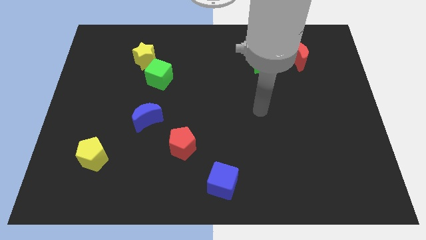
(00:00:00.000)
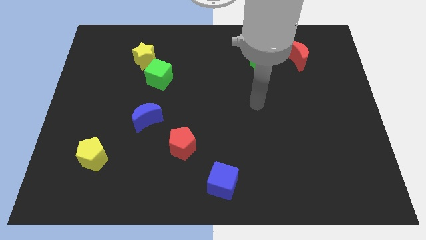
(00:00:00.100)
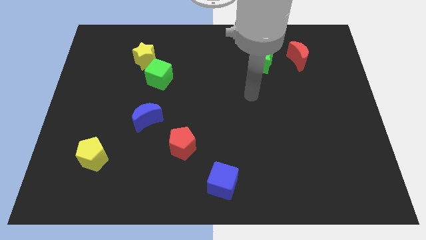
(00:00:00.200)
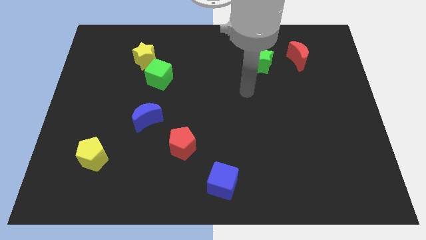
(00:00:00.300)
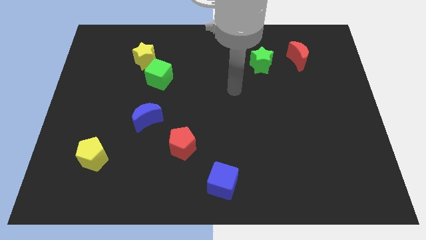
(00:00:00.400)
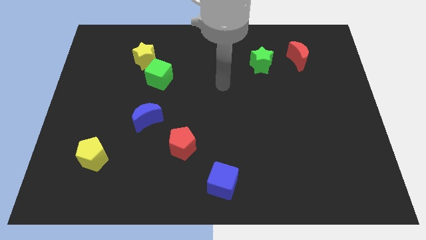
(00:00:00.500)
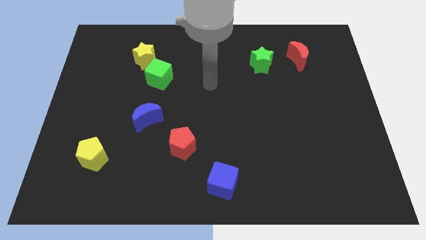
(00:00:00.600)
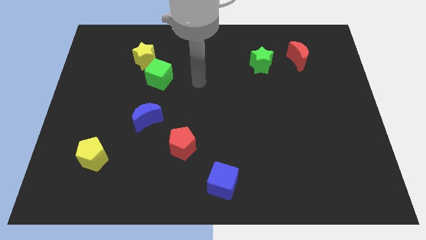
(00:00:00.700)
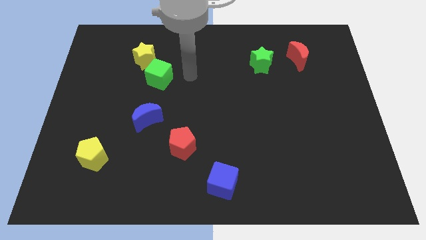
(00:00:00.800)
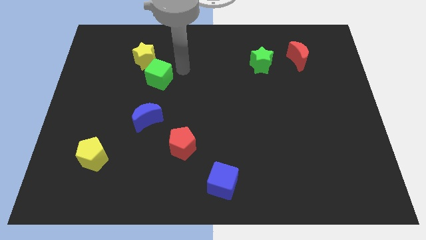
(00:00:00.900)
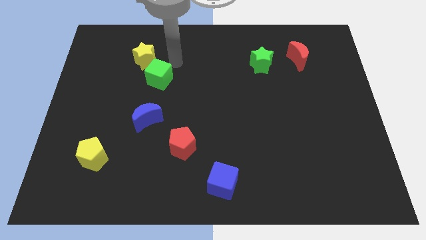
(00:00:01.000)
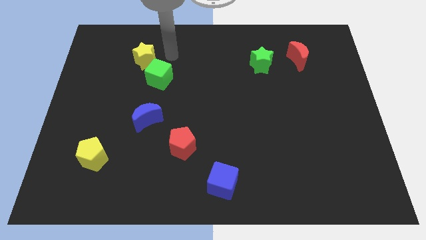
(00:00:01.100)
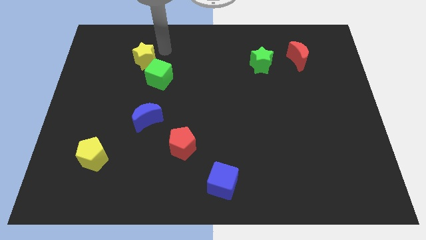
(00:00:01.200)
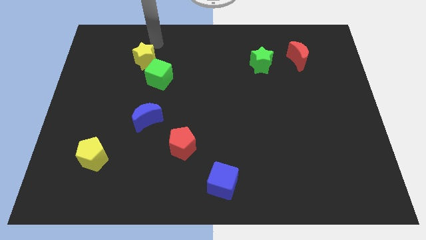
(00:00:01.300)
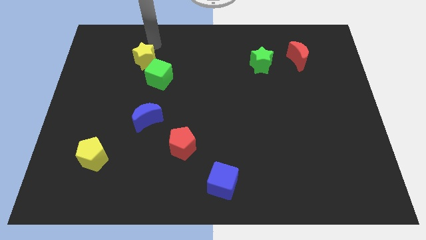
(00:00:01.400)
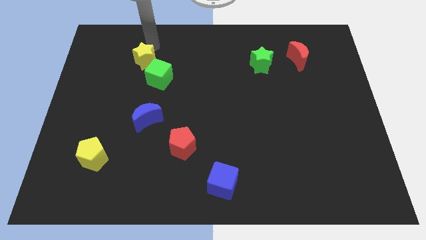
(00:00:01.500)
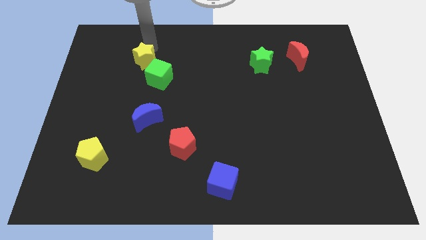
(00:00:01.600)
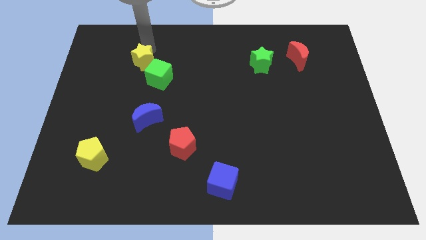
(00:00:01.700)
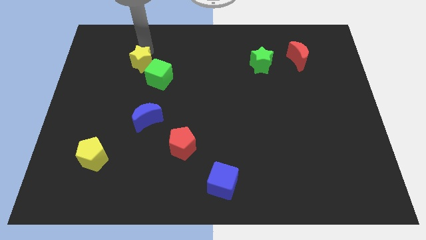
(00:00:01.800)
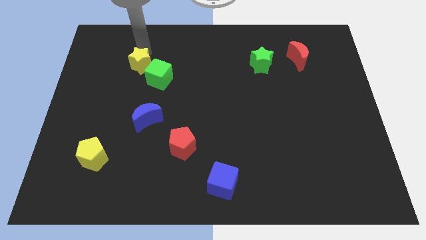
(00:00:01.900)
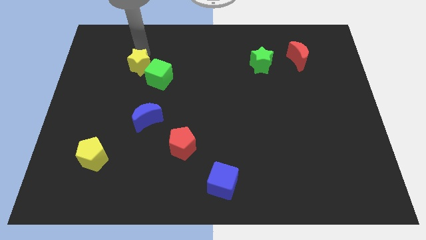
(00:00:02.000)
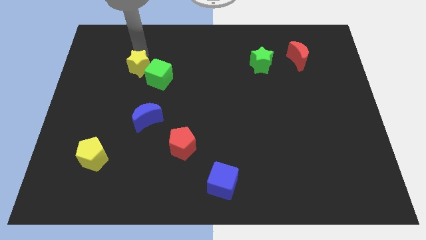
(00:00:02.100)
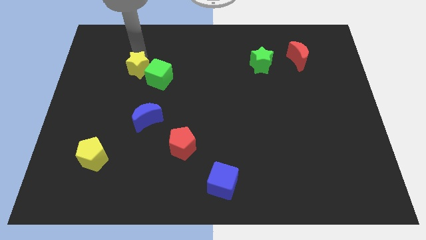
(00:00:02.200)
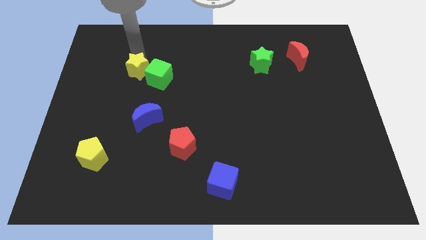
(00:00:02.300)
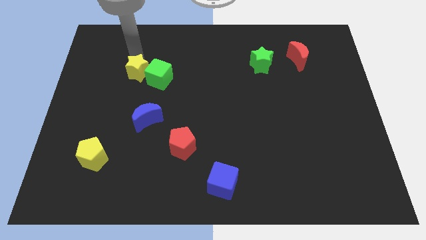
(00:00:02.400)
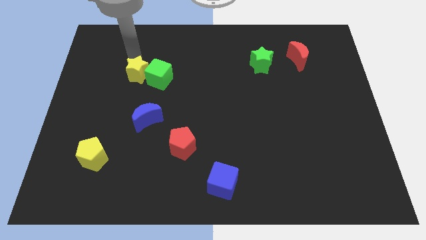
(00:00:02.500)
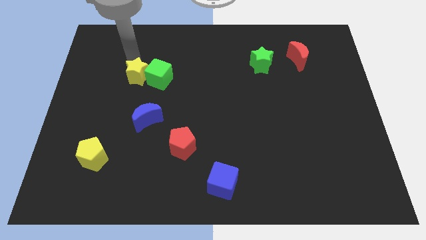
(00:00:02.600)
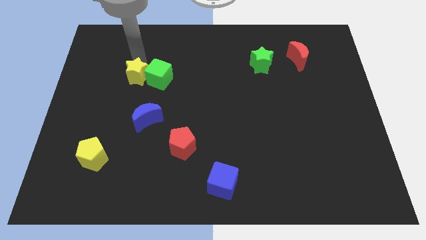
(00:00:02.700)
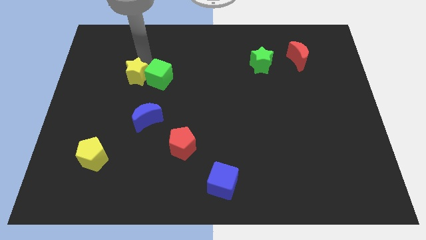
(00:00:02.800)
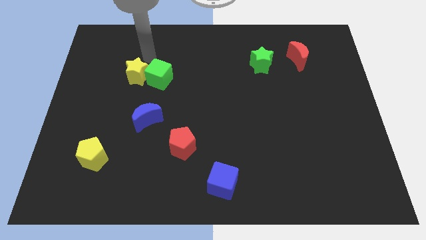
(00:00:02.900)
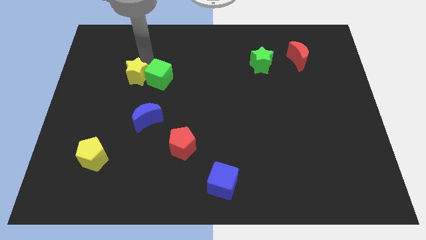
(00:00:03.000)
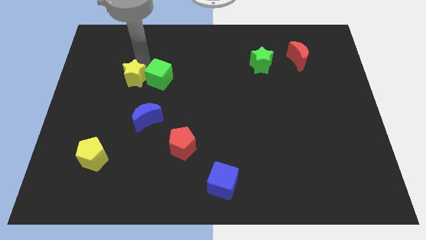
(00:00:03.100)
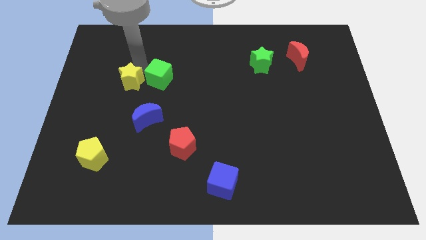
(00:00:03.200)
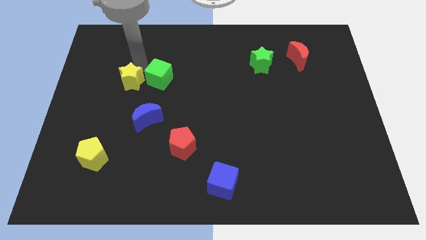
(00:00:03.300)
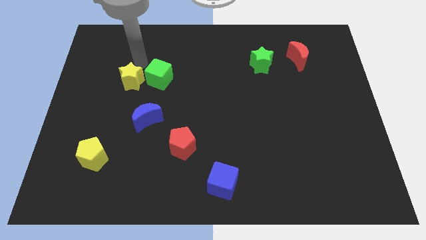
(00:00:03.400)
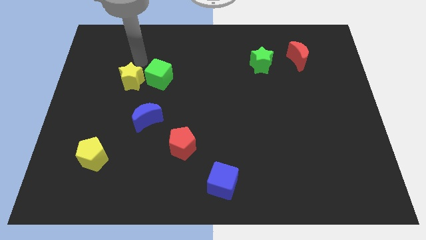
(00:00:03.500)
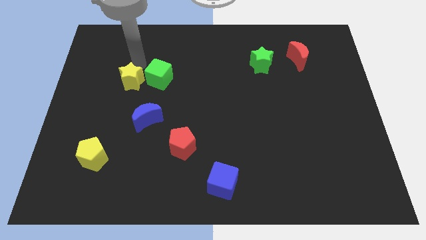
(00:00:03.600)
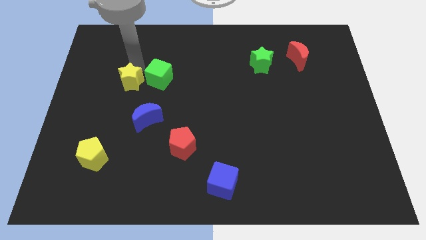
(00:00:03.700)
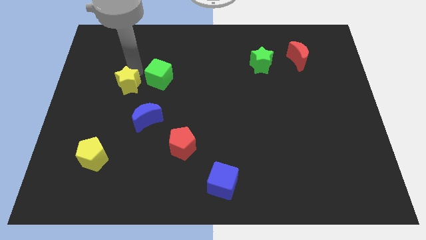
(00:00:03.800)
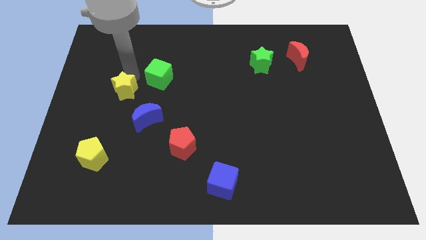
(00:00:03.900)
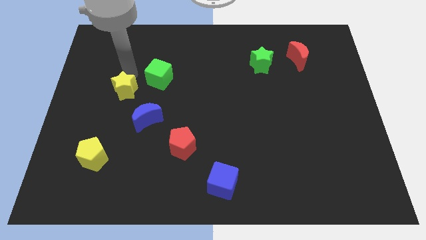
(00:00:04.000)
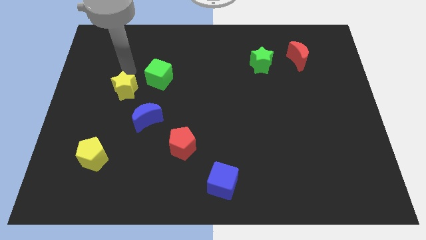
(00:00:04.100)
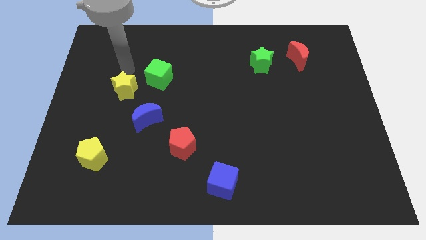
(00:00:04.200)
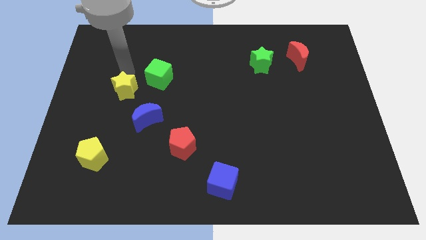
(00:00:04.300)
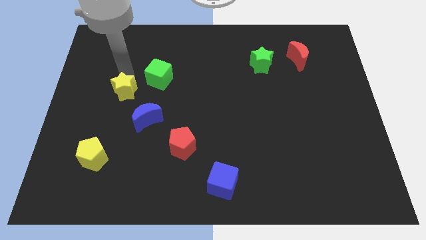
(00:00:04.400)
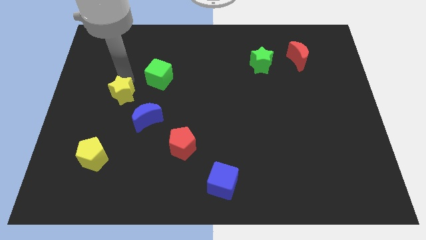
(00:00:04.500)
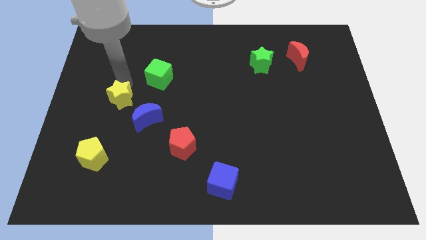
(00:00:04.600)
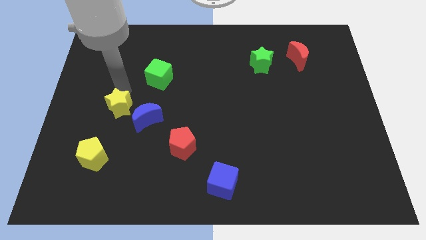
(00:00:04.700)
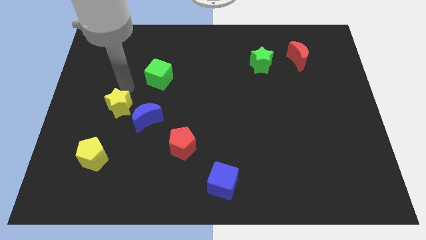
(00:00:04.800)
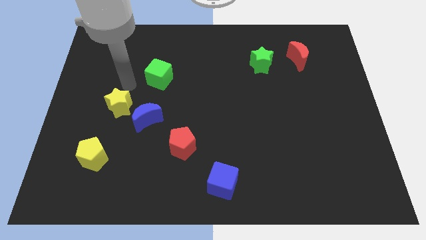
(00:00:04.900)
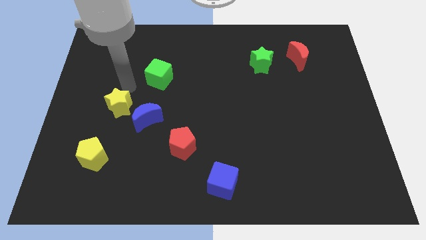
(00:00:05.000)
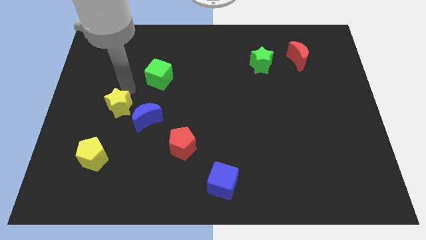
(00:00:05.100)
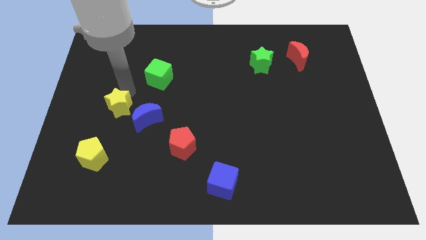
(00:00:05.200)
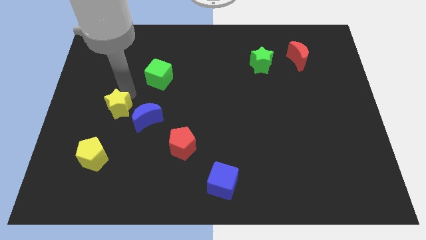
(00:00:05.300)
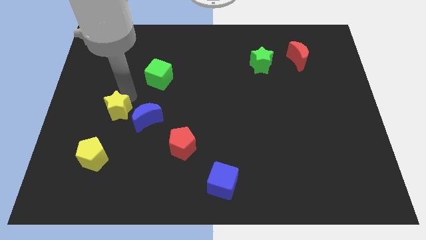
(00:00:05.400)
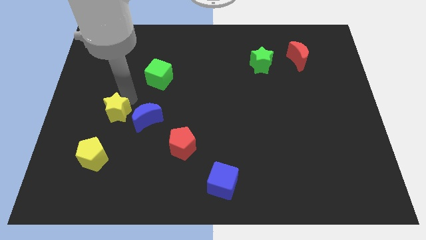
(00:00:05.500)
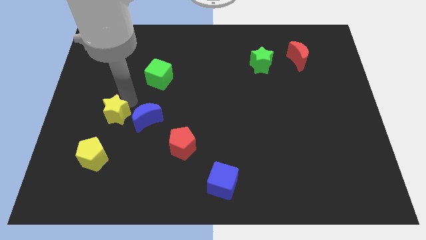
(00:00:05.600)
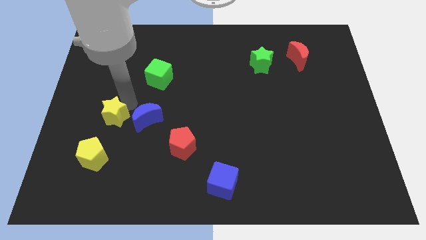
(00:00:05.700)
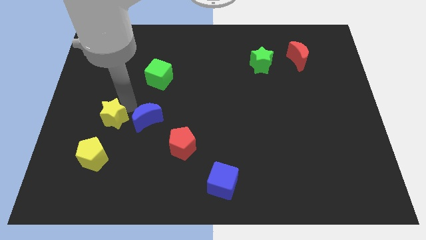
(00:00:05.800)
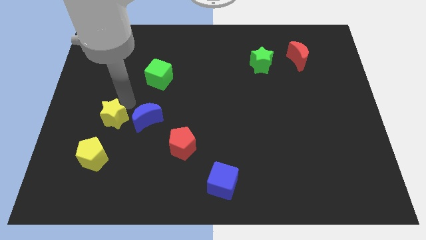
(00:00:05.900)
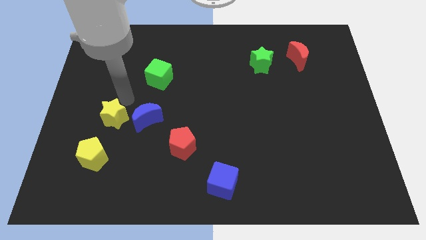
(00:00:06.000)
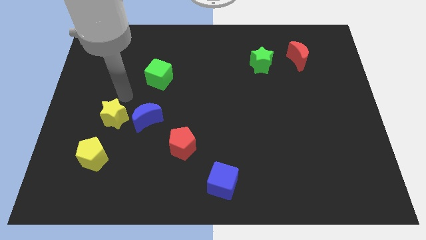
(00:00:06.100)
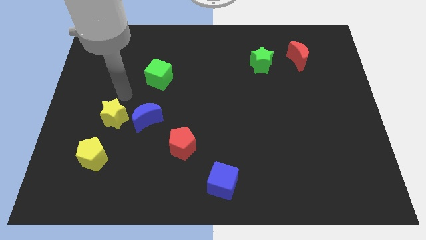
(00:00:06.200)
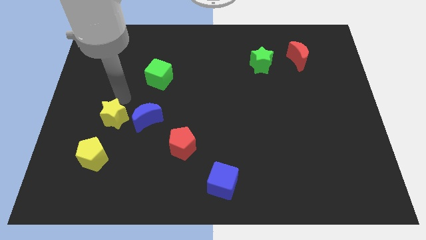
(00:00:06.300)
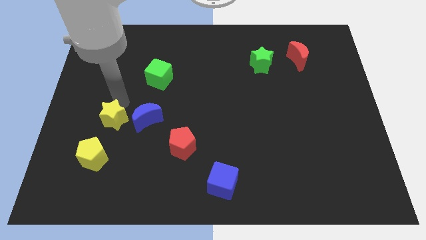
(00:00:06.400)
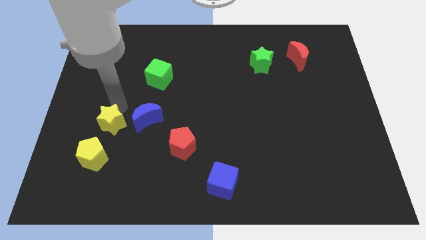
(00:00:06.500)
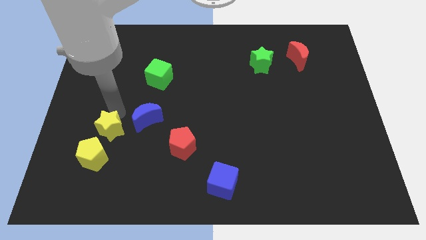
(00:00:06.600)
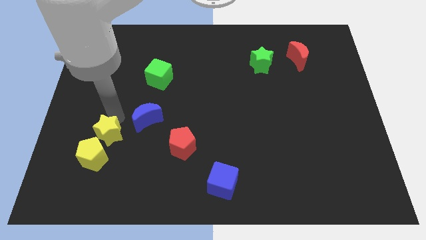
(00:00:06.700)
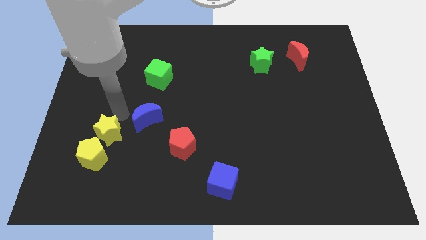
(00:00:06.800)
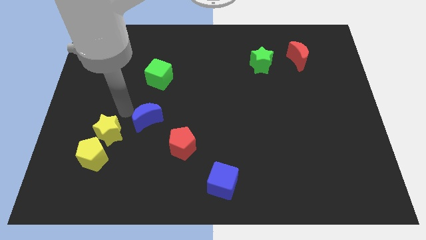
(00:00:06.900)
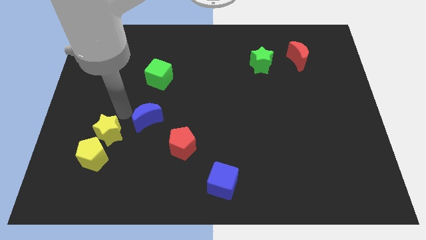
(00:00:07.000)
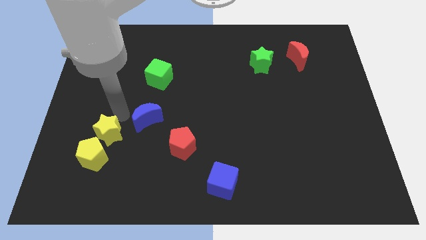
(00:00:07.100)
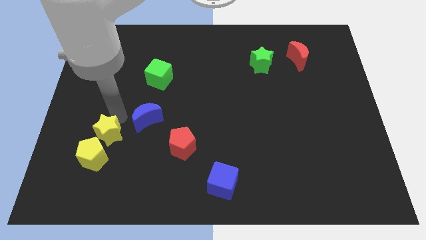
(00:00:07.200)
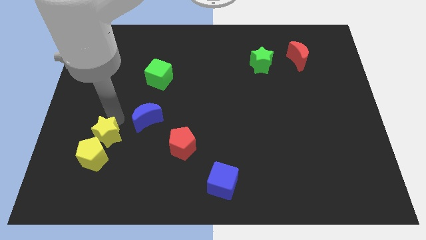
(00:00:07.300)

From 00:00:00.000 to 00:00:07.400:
push the yellow star next to the yellow pentagon
